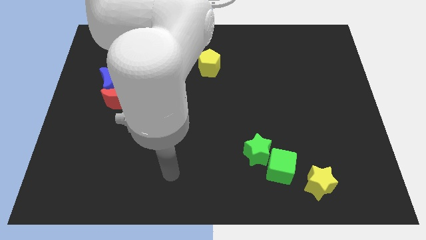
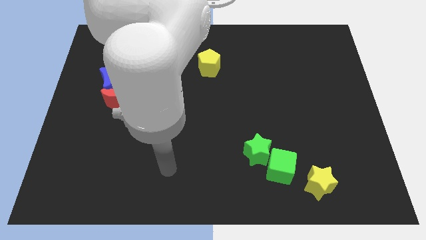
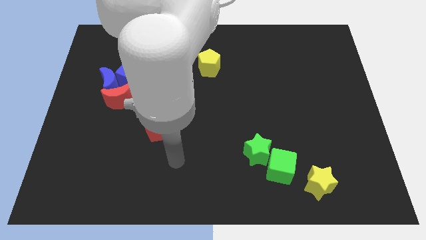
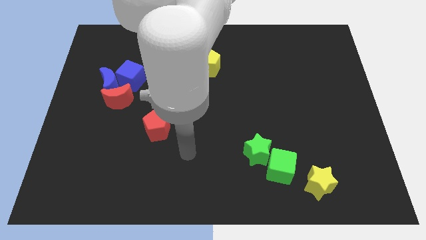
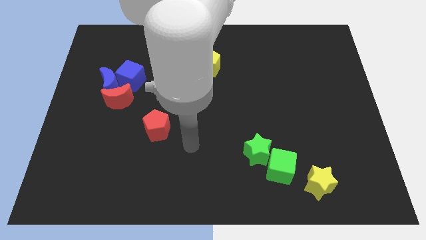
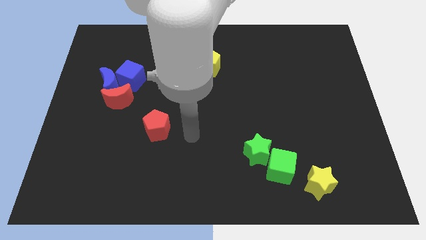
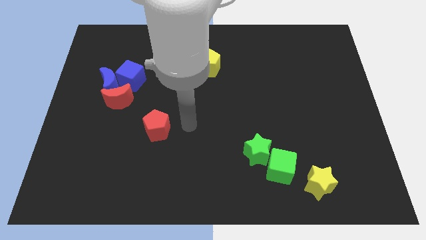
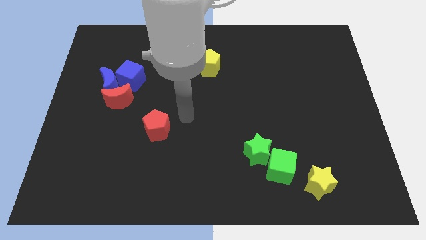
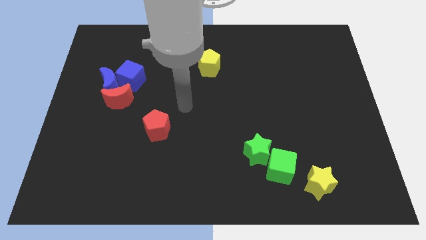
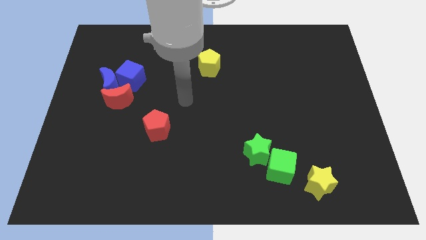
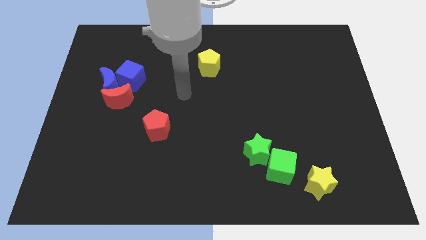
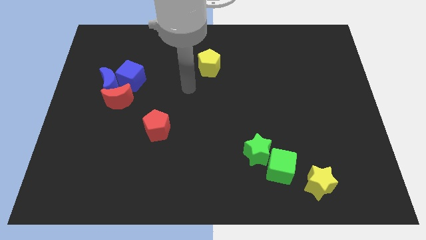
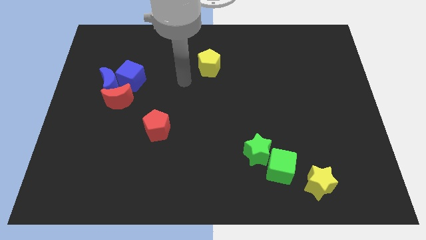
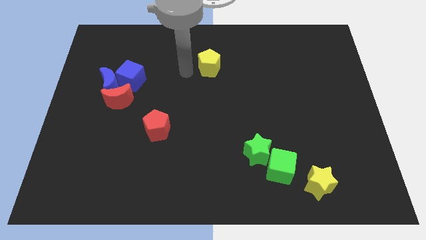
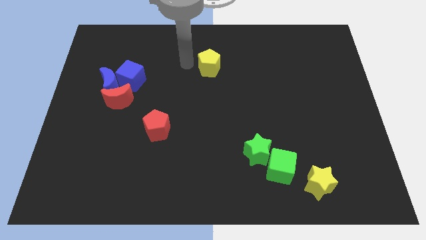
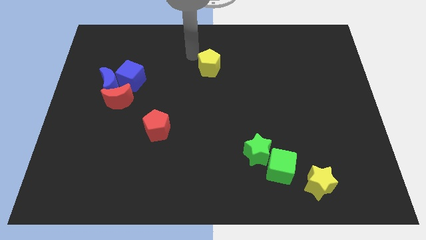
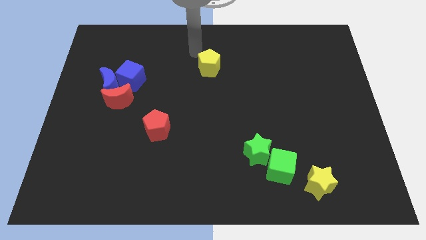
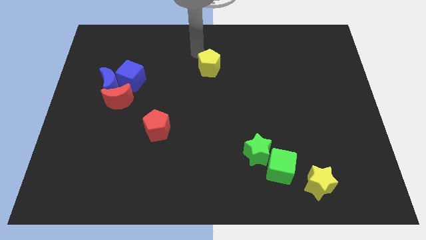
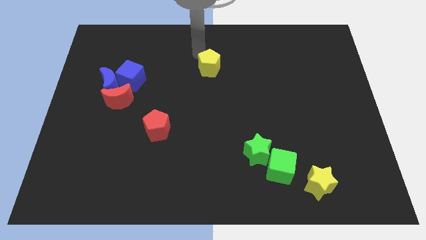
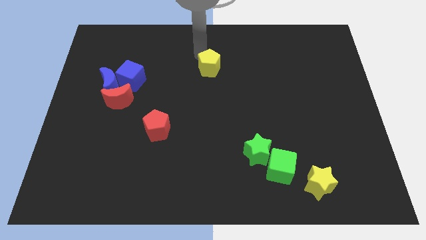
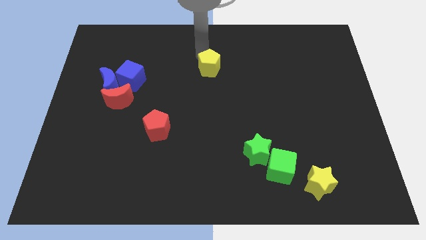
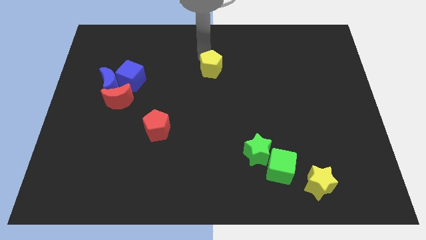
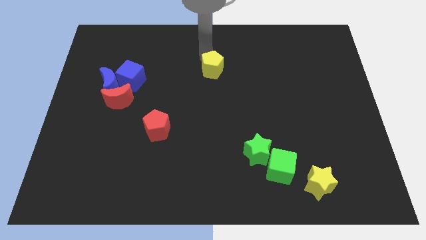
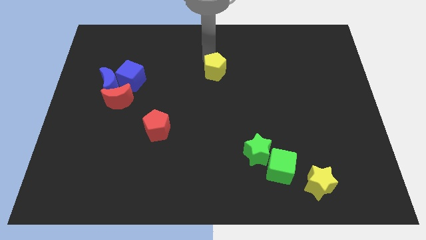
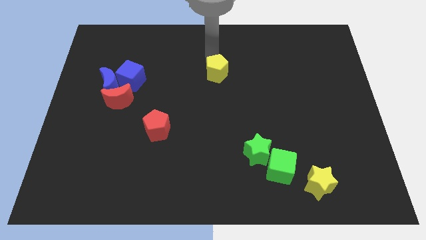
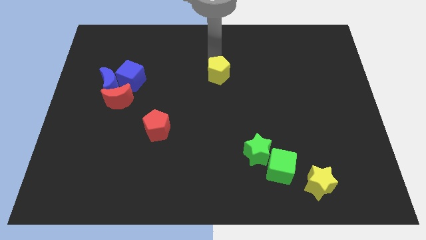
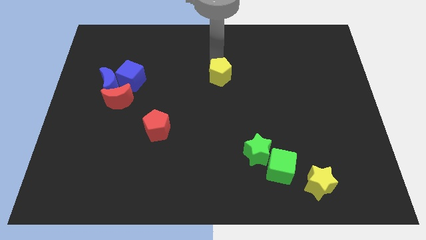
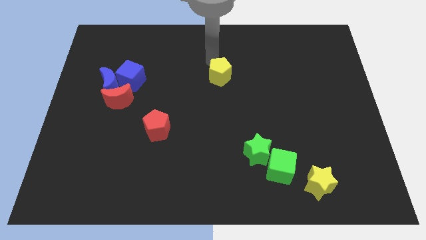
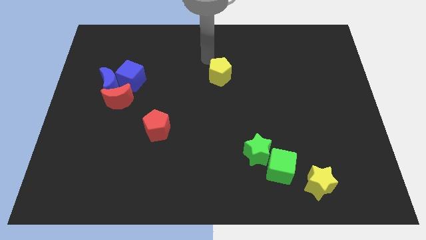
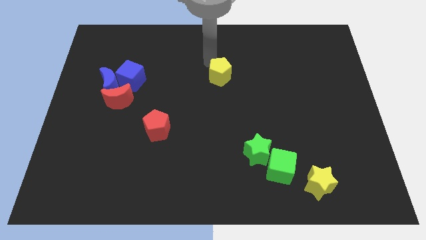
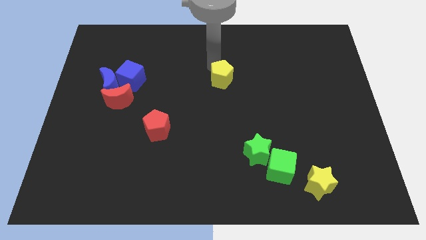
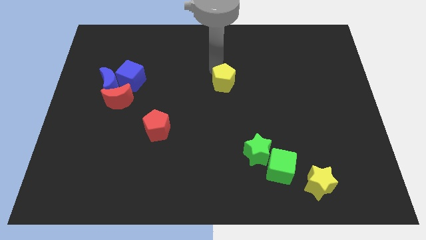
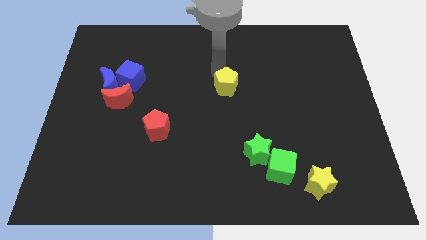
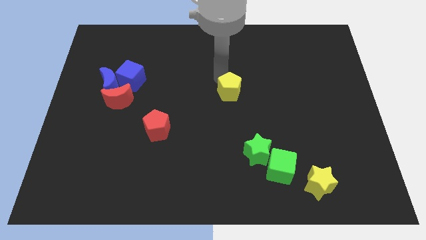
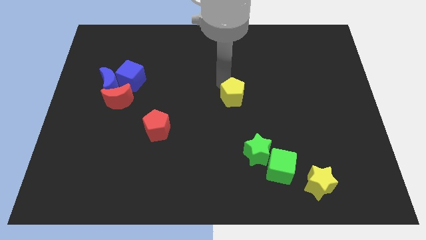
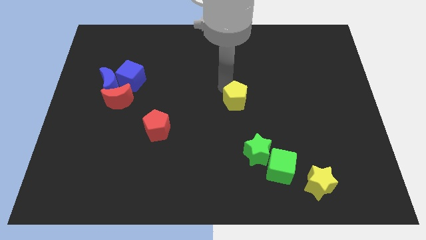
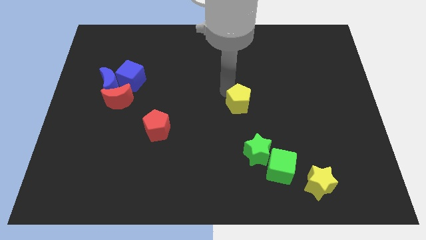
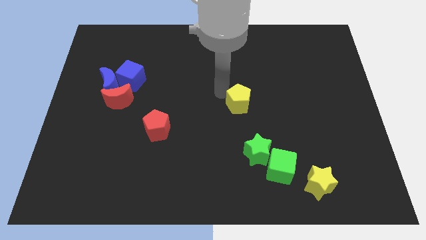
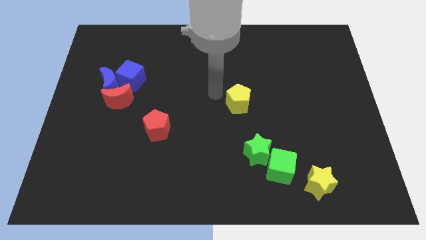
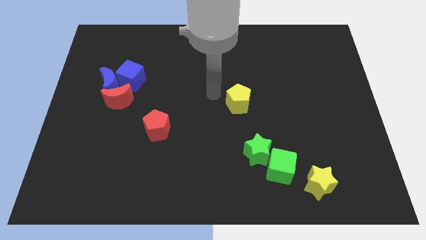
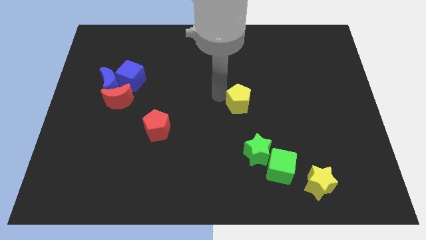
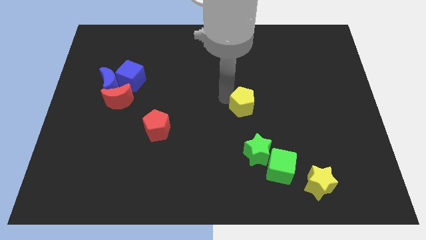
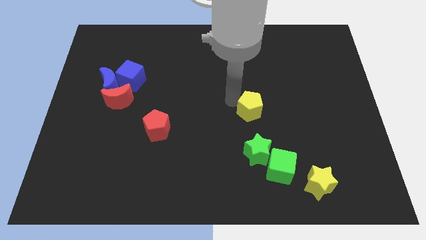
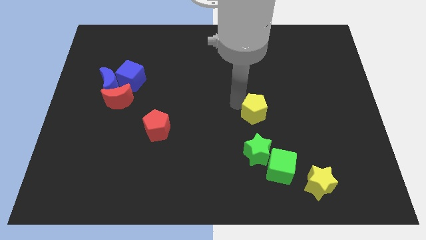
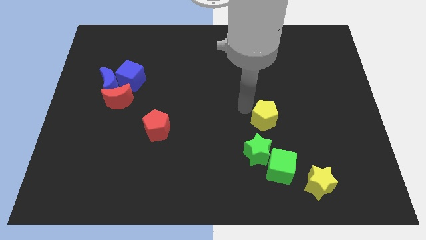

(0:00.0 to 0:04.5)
push the yellow pentagon downwards and to the right diagonally

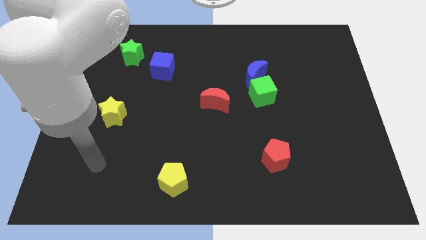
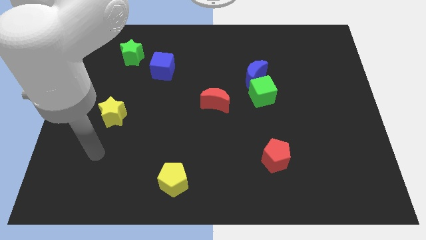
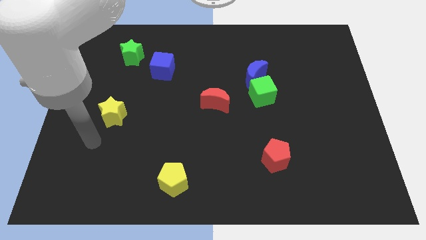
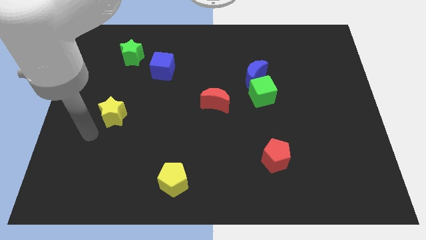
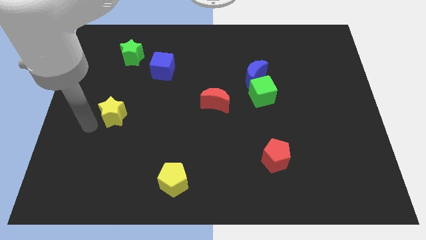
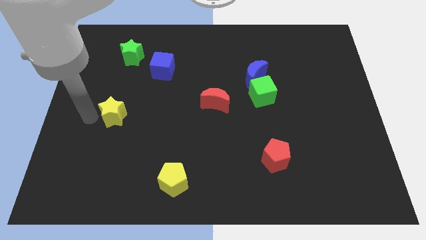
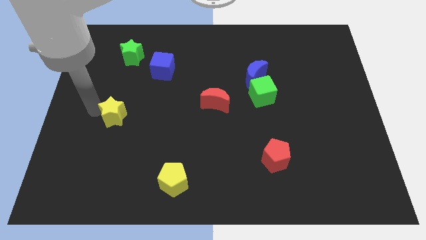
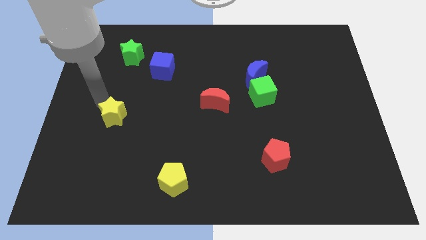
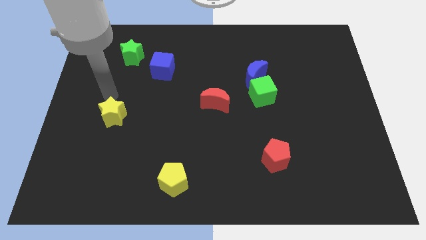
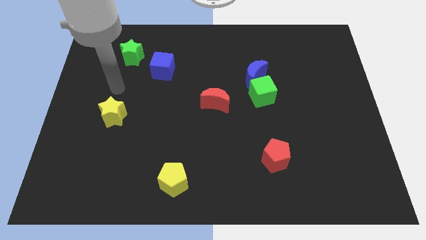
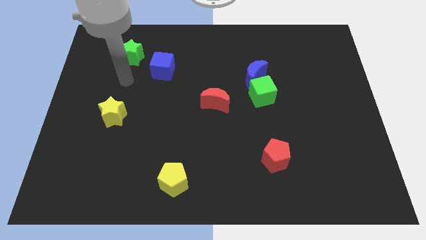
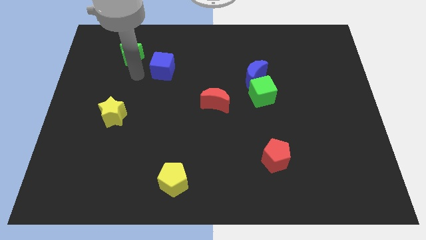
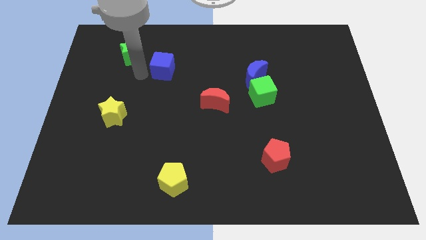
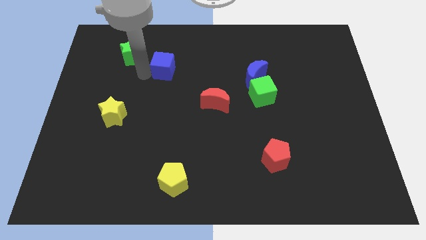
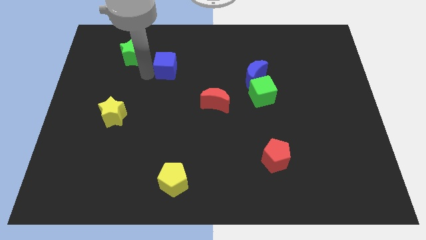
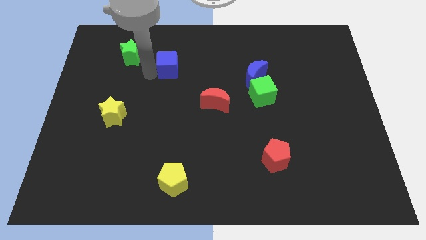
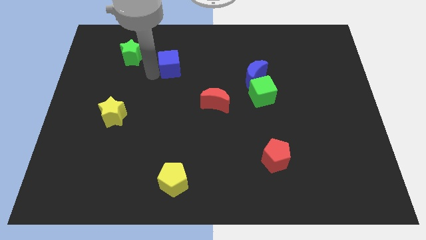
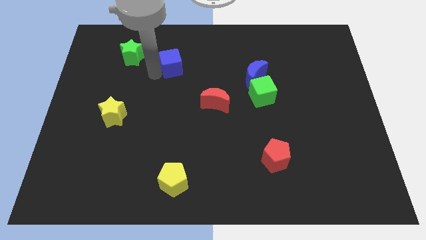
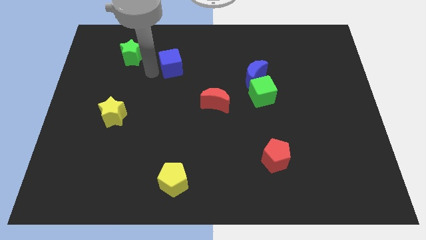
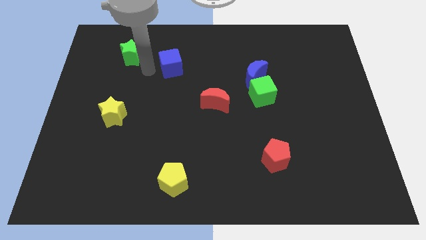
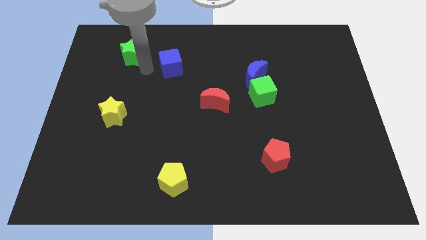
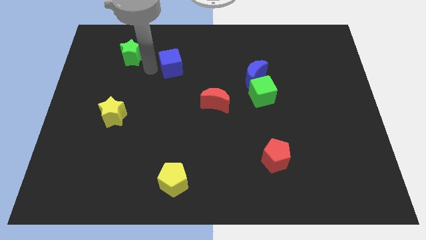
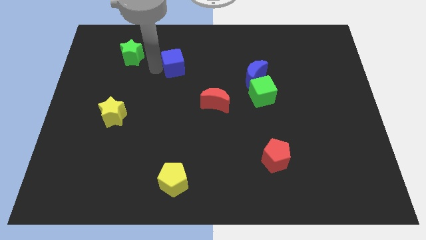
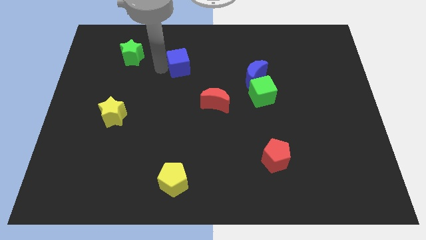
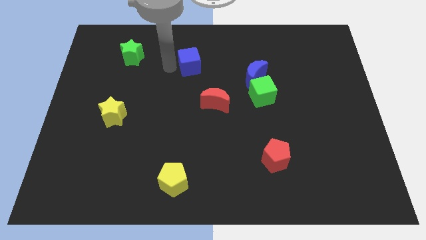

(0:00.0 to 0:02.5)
slightly push the blue cube right

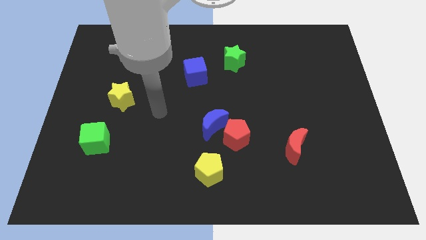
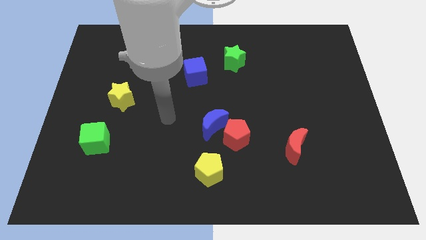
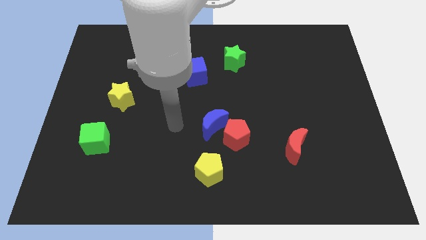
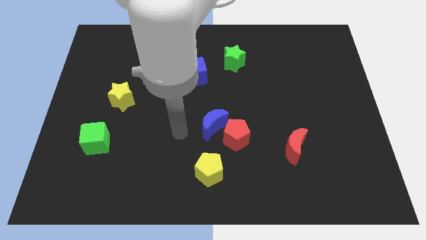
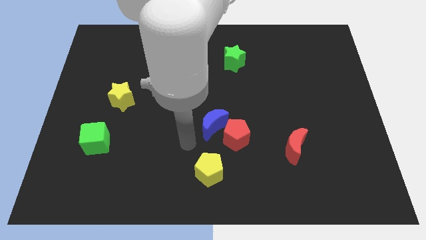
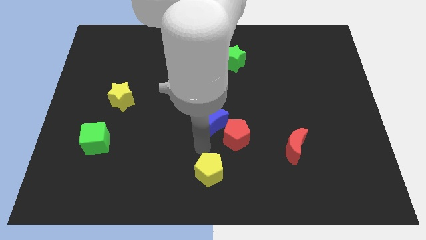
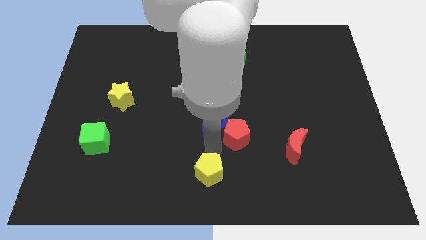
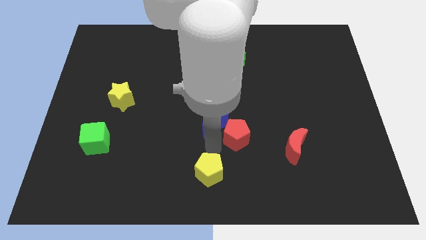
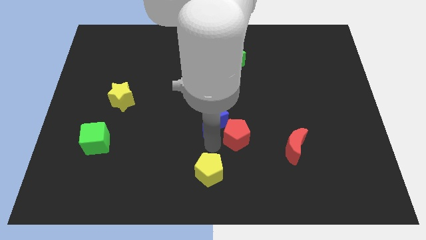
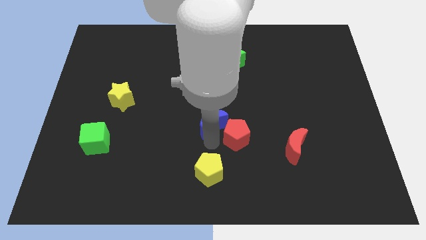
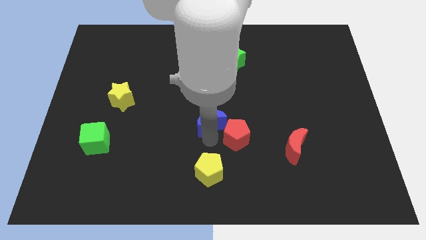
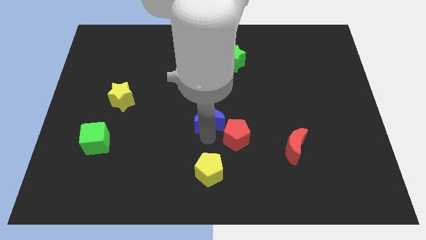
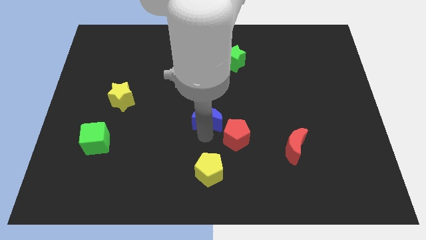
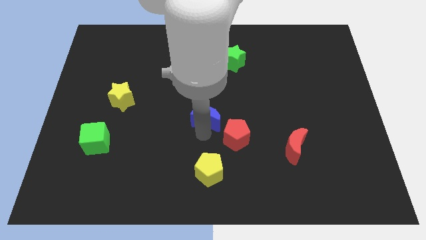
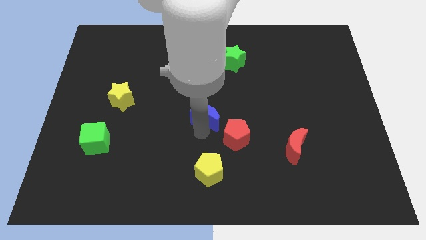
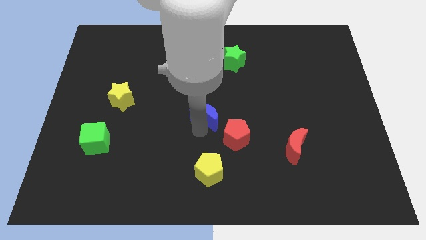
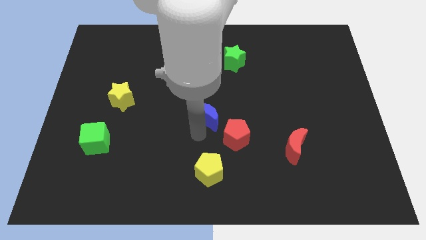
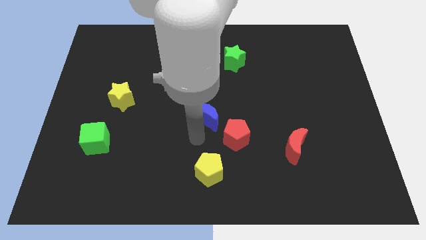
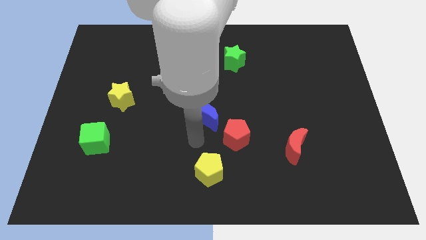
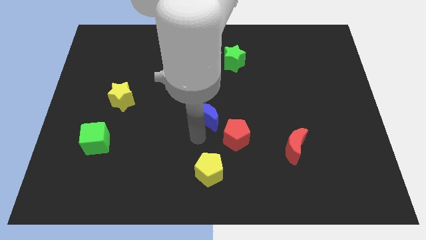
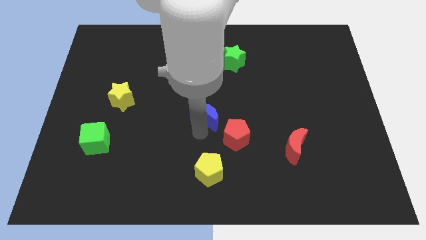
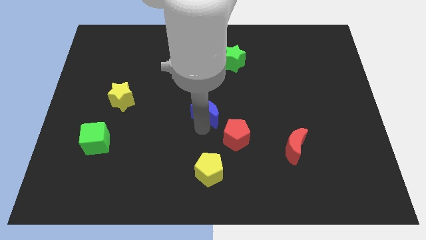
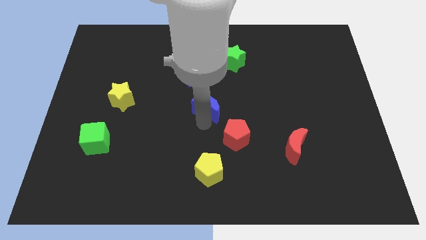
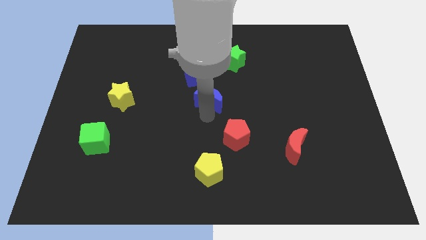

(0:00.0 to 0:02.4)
move the blue moon a bit up
